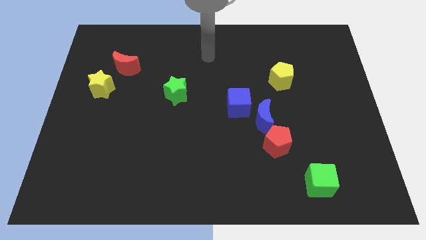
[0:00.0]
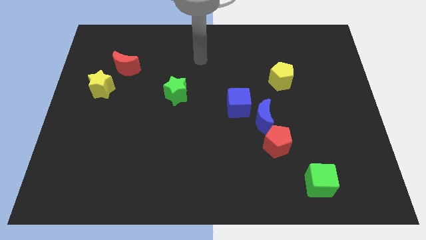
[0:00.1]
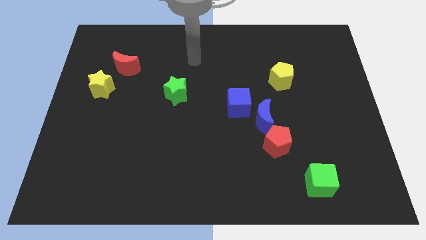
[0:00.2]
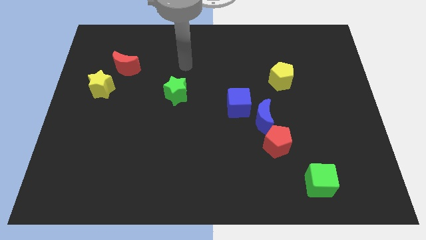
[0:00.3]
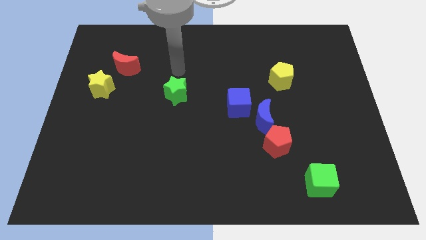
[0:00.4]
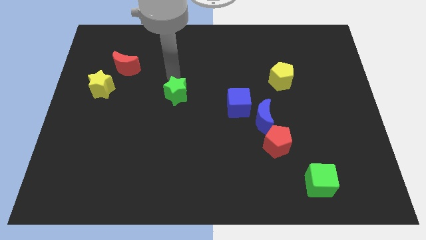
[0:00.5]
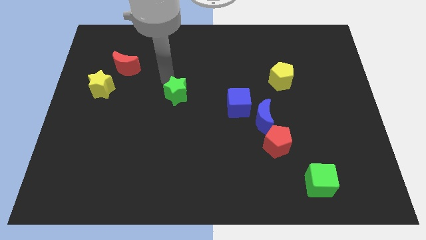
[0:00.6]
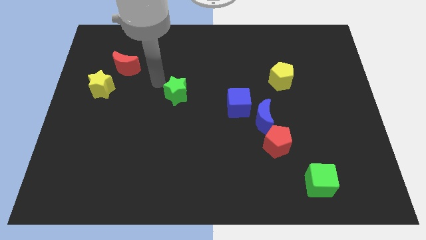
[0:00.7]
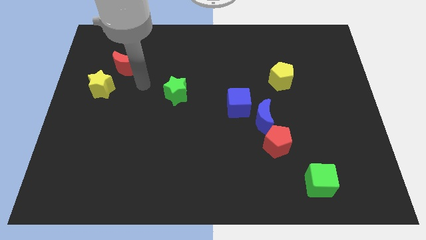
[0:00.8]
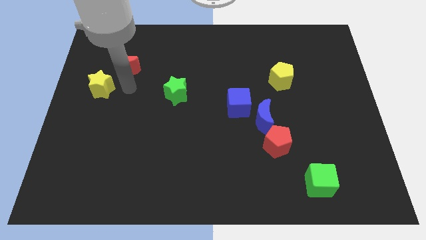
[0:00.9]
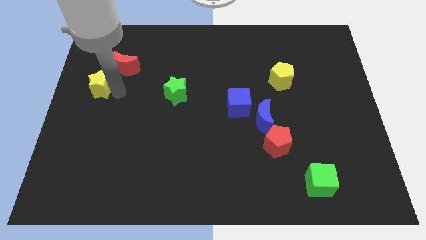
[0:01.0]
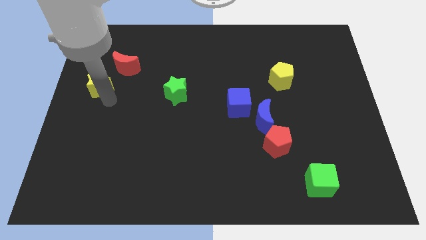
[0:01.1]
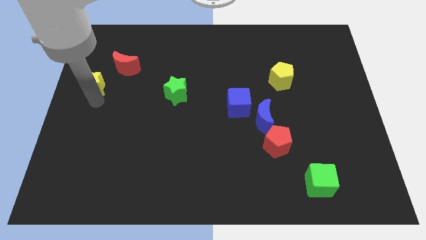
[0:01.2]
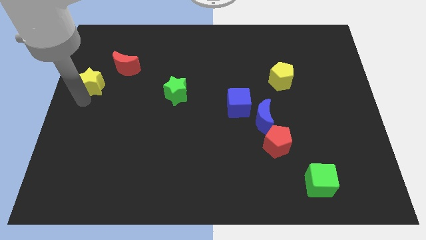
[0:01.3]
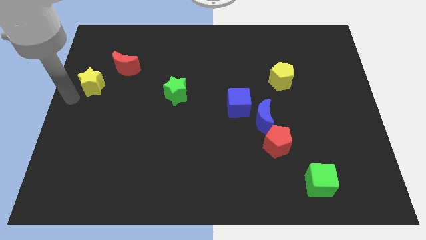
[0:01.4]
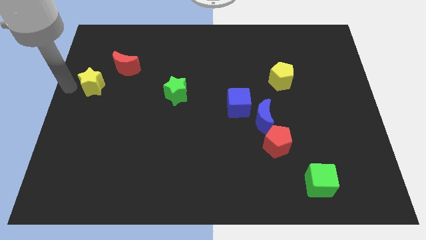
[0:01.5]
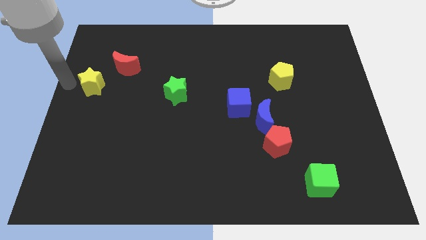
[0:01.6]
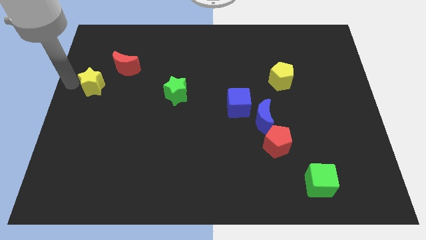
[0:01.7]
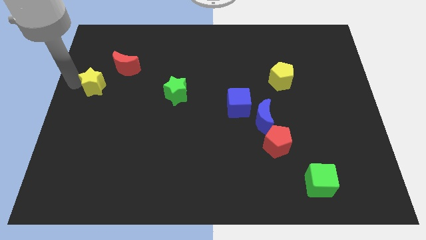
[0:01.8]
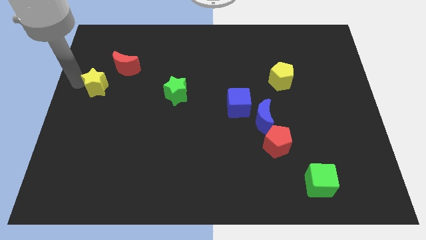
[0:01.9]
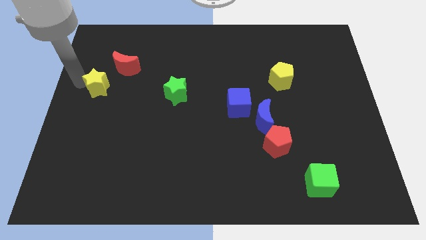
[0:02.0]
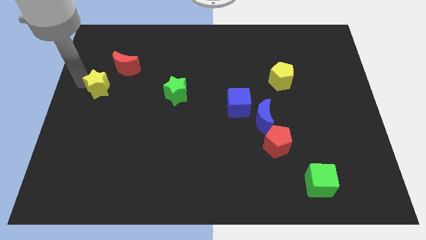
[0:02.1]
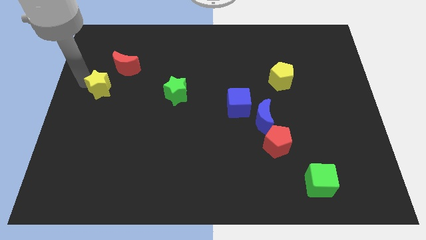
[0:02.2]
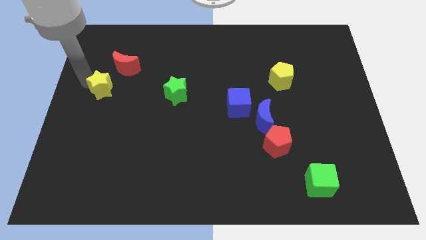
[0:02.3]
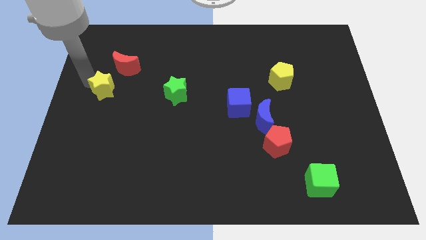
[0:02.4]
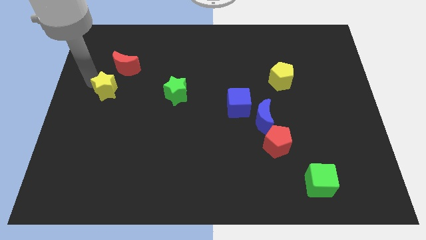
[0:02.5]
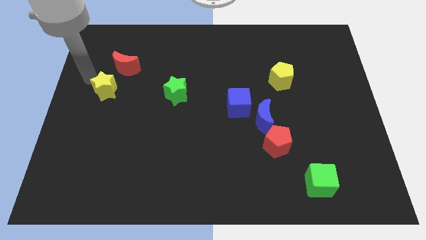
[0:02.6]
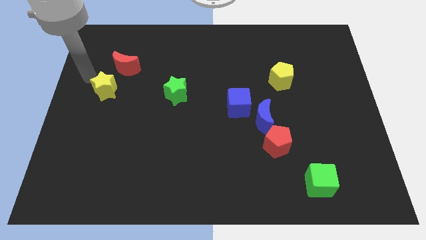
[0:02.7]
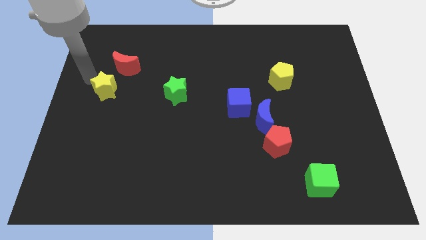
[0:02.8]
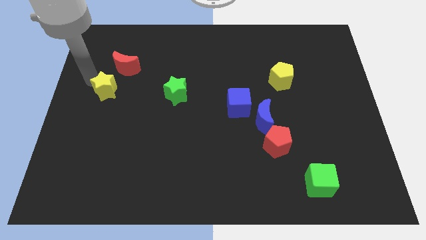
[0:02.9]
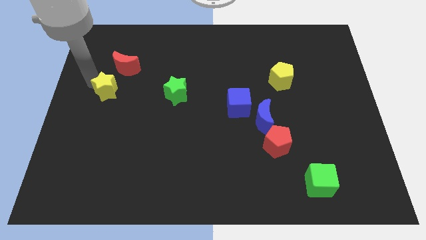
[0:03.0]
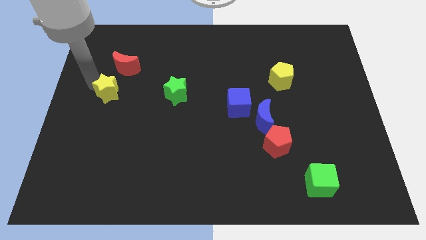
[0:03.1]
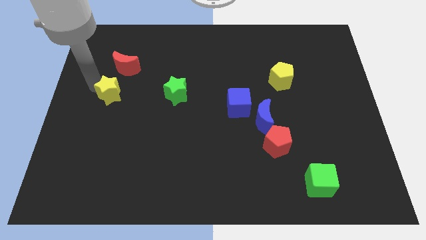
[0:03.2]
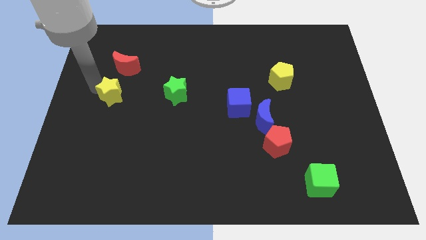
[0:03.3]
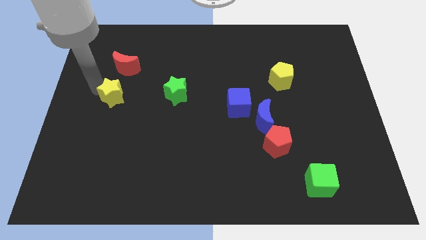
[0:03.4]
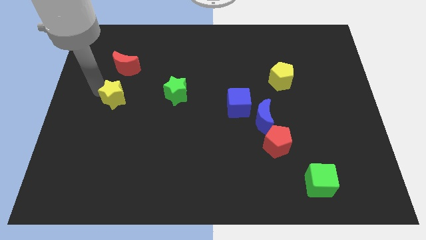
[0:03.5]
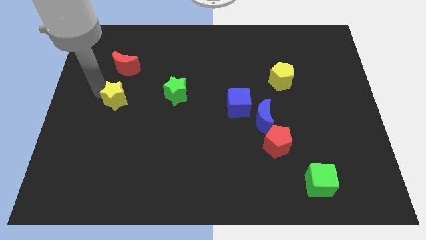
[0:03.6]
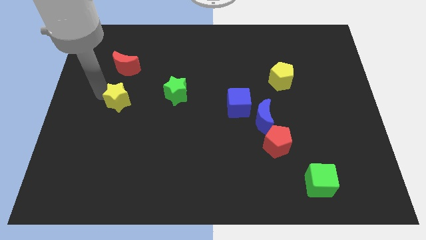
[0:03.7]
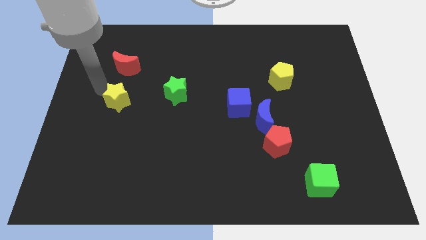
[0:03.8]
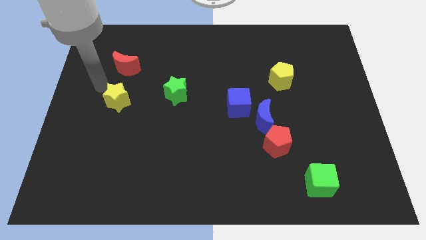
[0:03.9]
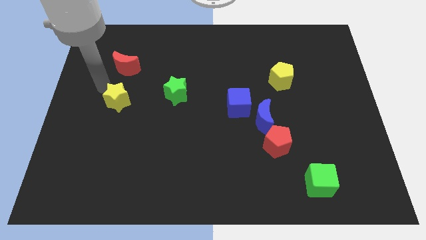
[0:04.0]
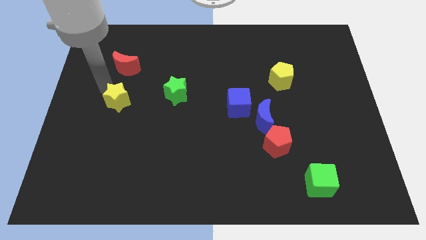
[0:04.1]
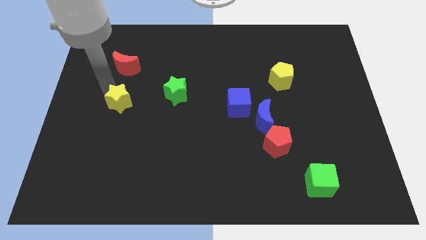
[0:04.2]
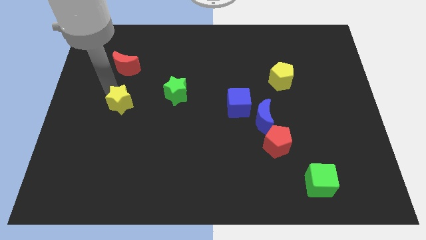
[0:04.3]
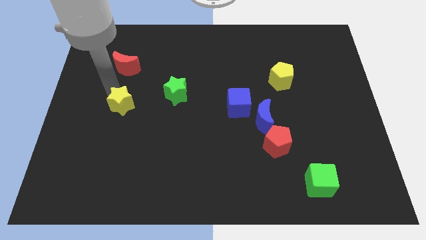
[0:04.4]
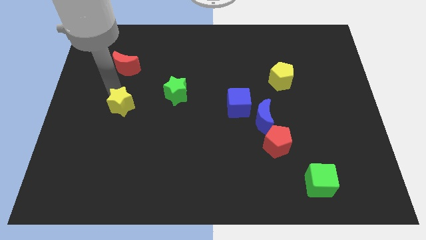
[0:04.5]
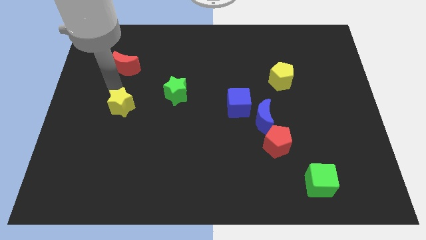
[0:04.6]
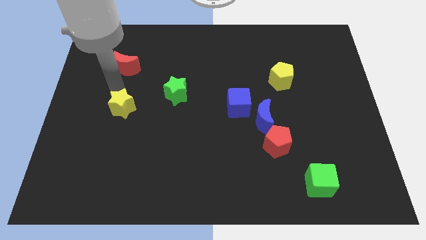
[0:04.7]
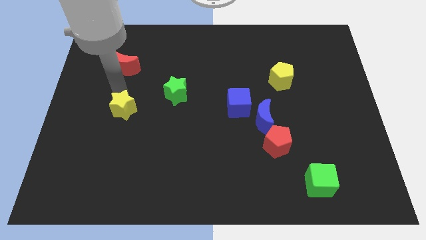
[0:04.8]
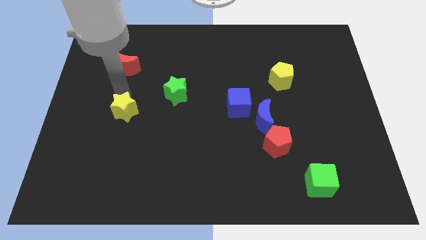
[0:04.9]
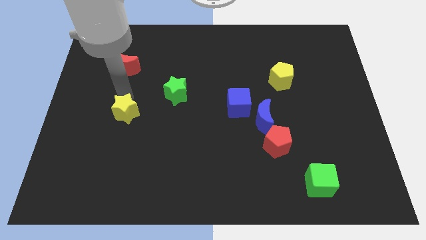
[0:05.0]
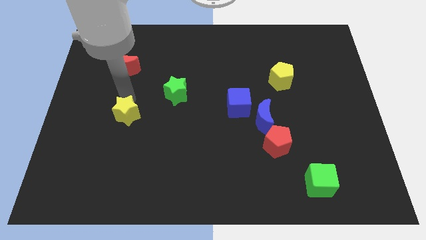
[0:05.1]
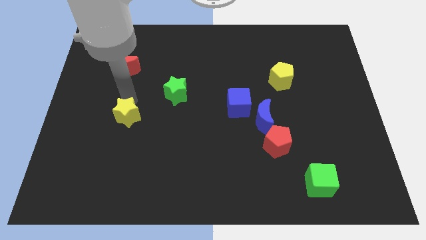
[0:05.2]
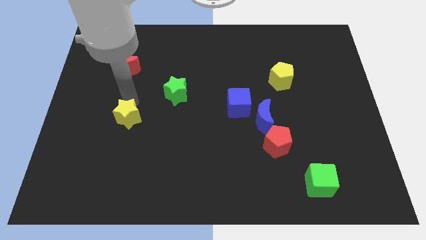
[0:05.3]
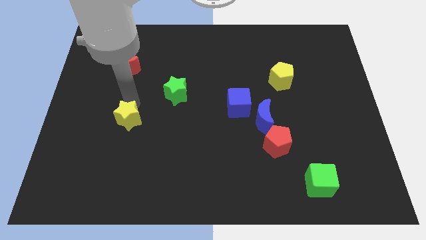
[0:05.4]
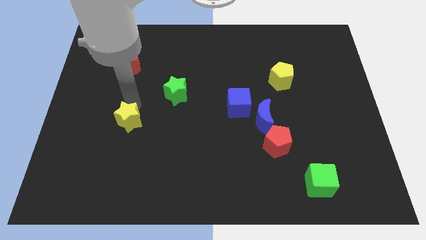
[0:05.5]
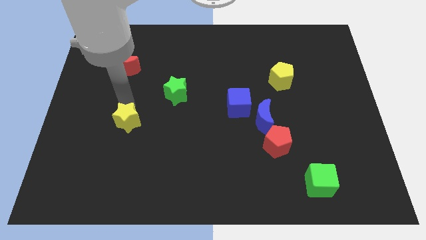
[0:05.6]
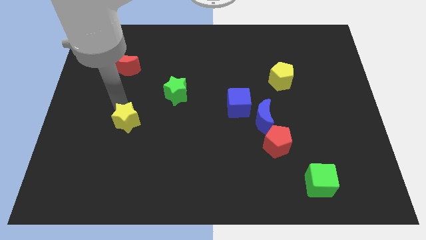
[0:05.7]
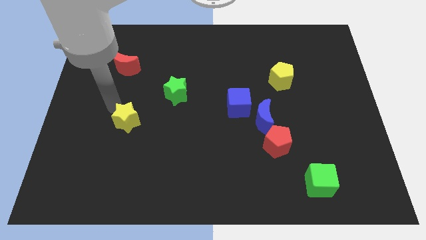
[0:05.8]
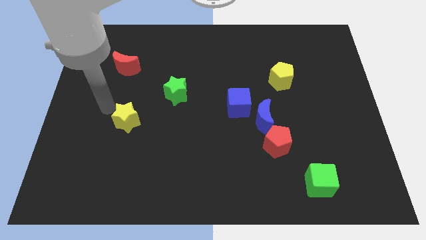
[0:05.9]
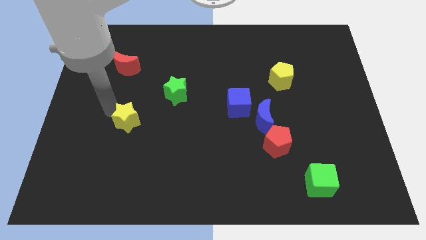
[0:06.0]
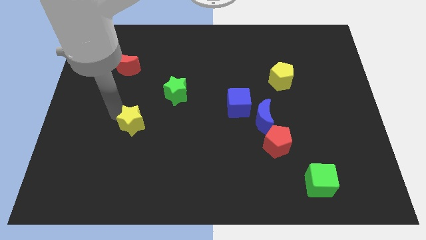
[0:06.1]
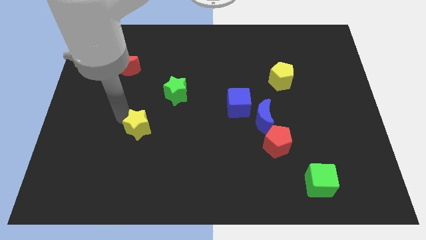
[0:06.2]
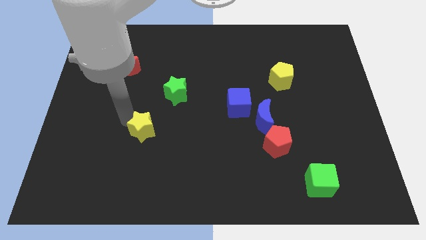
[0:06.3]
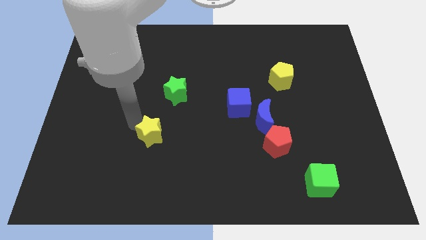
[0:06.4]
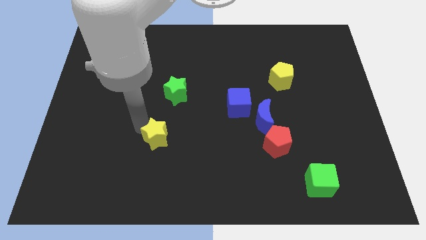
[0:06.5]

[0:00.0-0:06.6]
slide the yellow star down and right

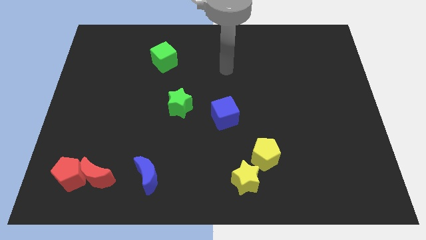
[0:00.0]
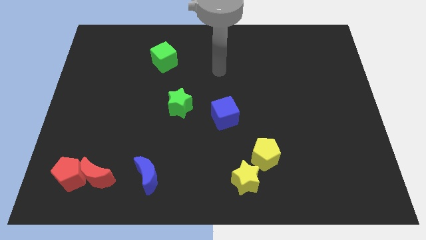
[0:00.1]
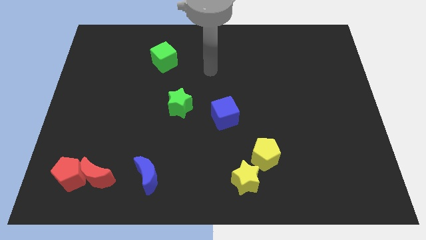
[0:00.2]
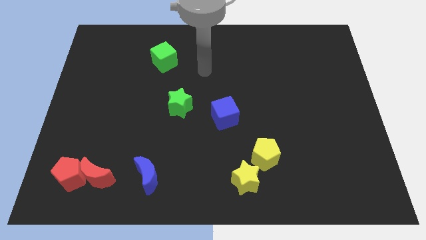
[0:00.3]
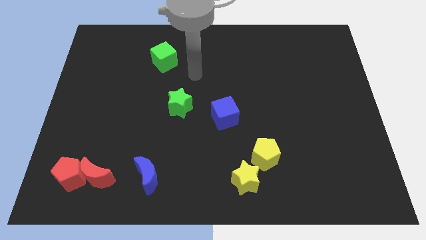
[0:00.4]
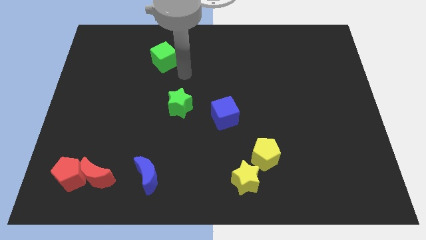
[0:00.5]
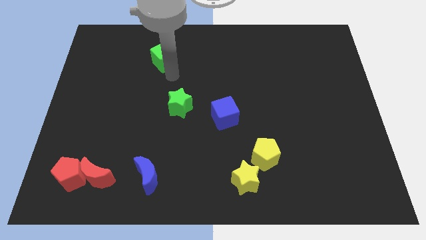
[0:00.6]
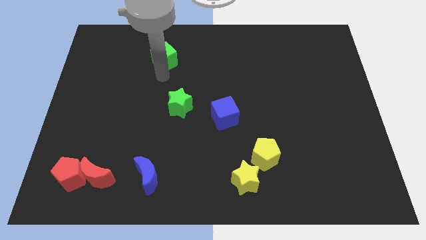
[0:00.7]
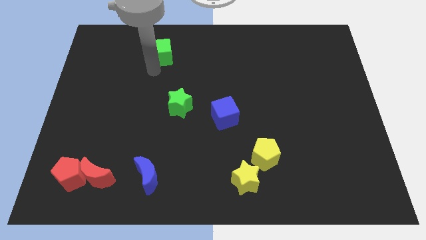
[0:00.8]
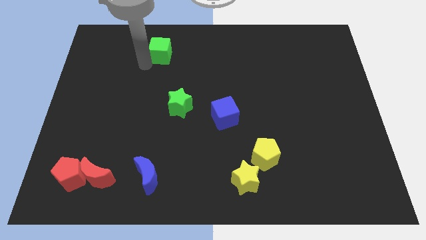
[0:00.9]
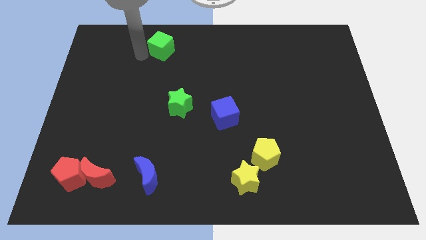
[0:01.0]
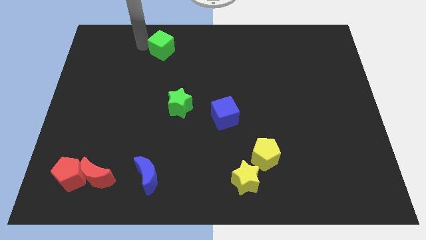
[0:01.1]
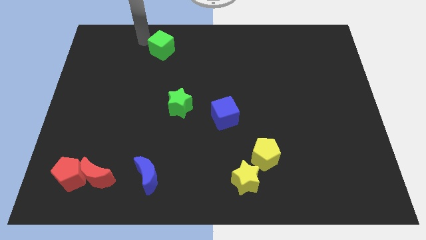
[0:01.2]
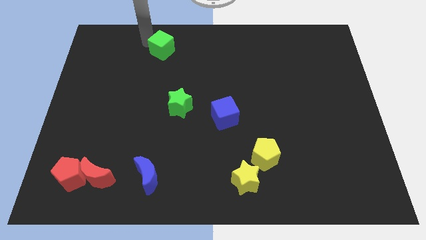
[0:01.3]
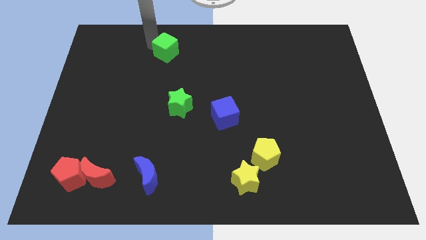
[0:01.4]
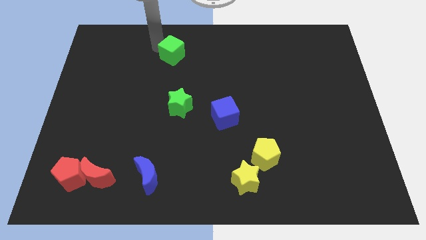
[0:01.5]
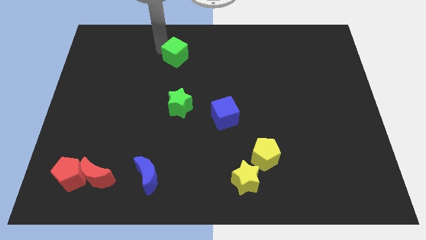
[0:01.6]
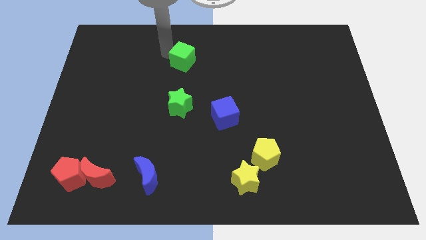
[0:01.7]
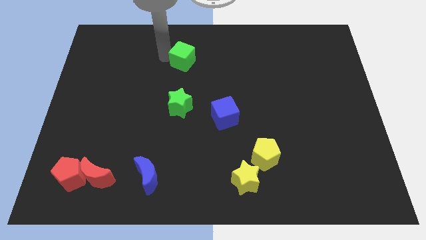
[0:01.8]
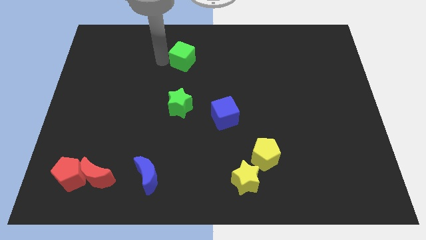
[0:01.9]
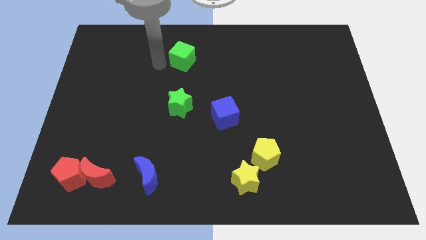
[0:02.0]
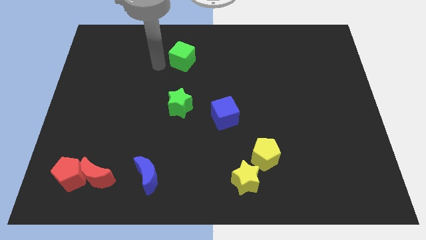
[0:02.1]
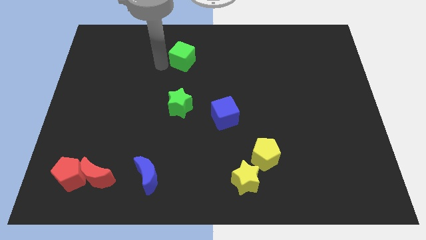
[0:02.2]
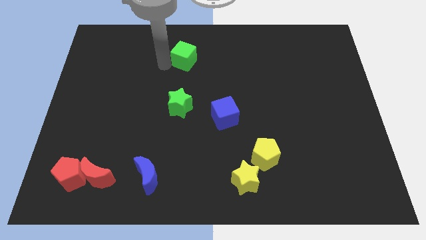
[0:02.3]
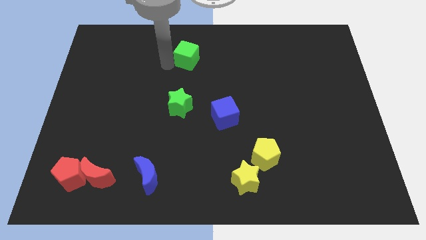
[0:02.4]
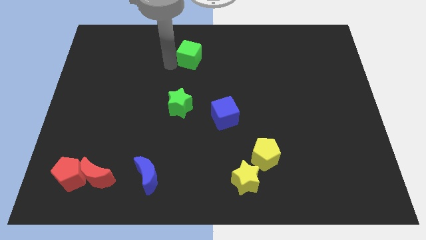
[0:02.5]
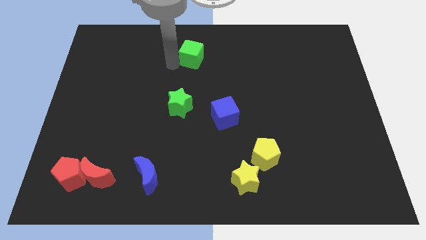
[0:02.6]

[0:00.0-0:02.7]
push the green cube a little bit right
